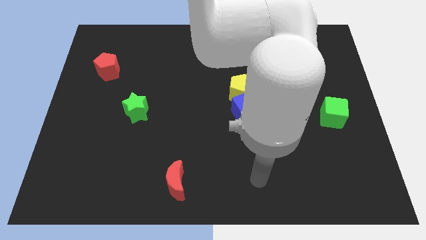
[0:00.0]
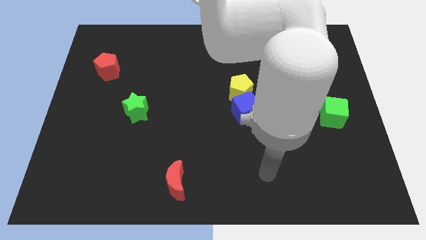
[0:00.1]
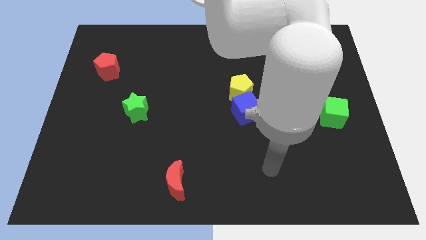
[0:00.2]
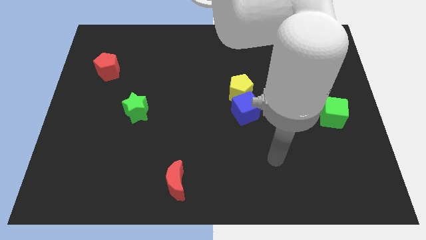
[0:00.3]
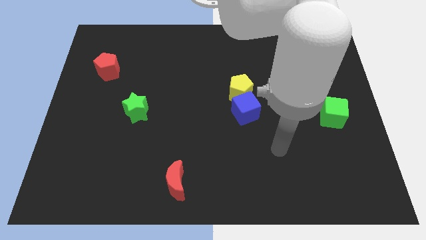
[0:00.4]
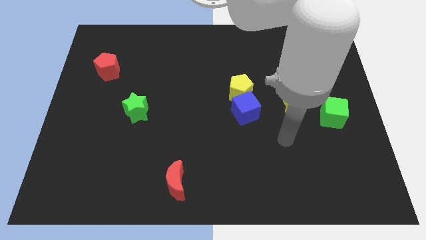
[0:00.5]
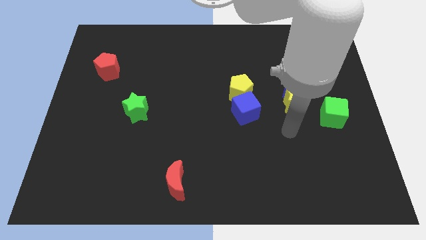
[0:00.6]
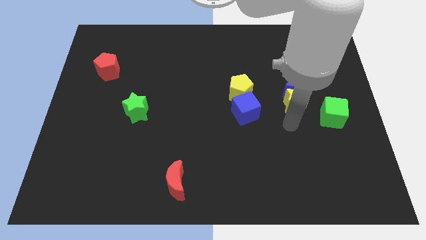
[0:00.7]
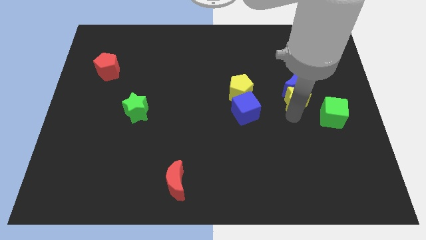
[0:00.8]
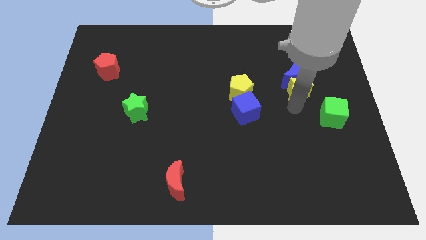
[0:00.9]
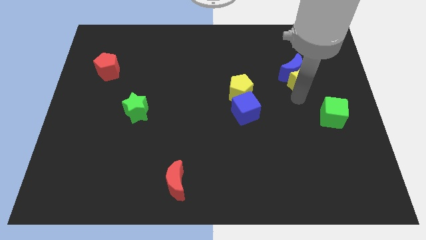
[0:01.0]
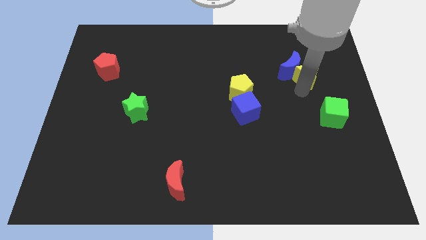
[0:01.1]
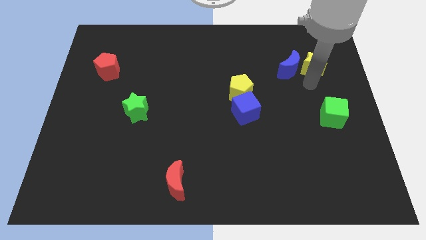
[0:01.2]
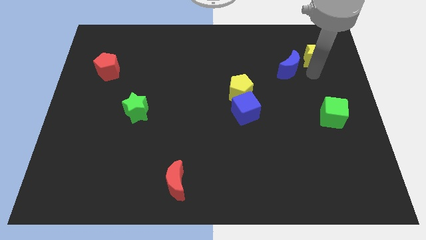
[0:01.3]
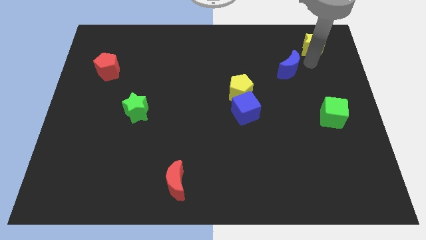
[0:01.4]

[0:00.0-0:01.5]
move the blue moon away from the yellow star

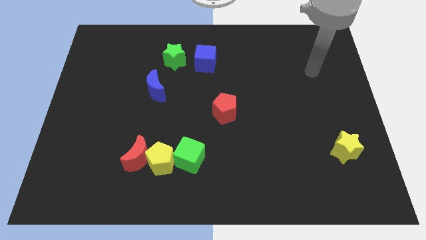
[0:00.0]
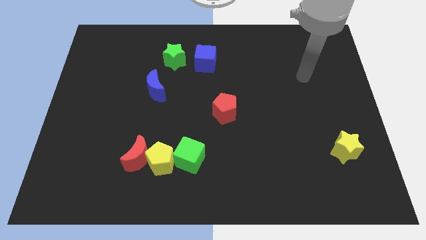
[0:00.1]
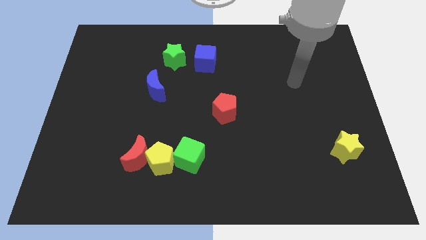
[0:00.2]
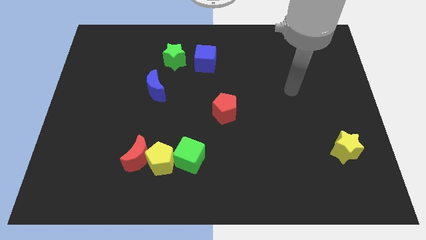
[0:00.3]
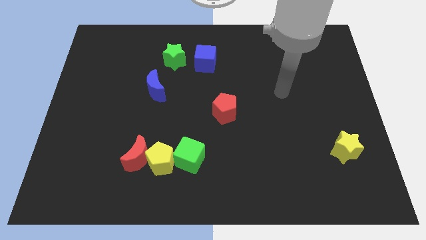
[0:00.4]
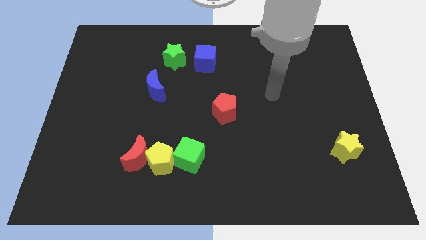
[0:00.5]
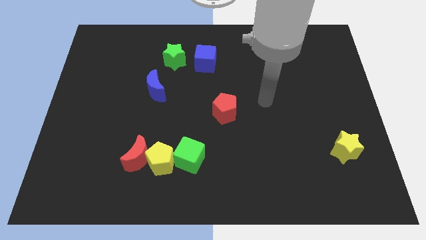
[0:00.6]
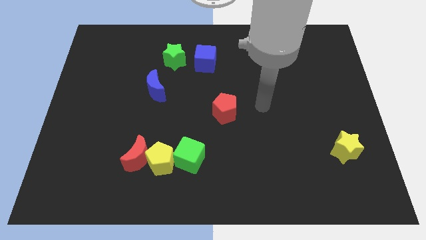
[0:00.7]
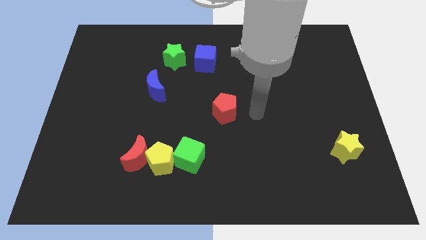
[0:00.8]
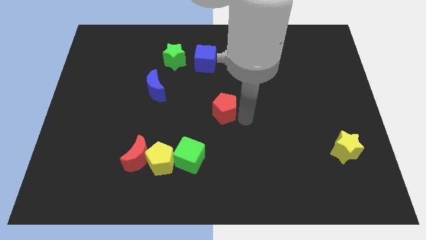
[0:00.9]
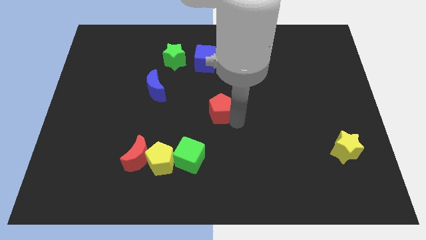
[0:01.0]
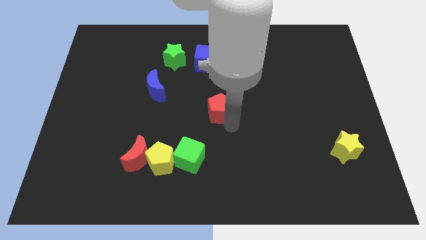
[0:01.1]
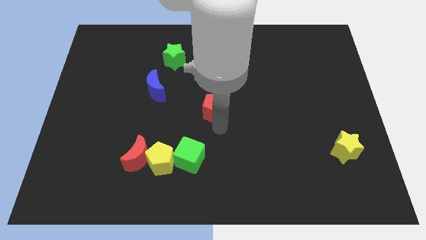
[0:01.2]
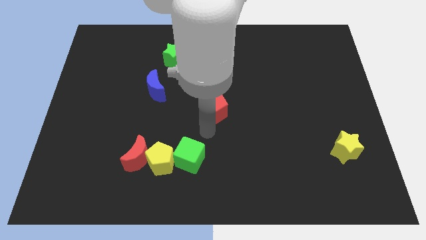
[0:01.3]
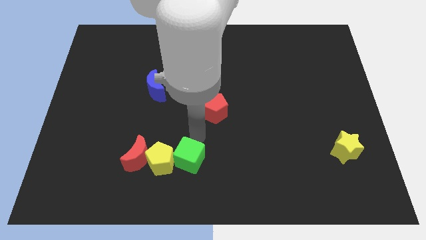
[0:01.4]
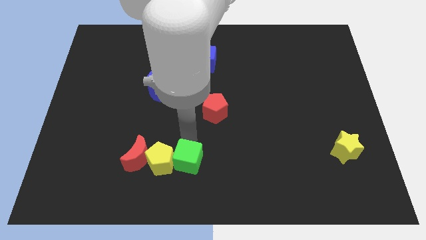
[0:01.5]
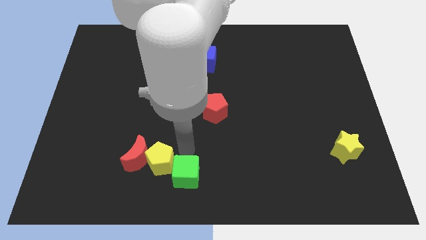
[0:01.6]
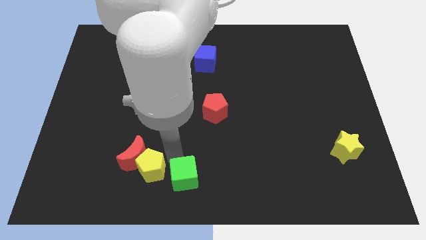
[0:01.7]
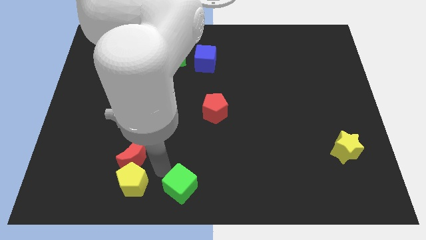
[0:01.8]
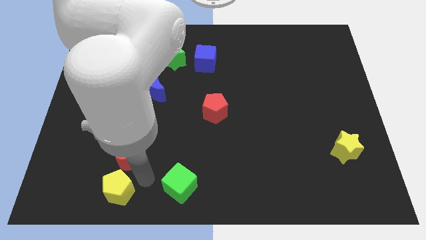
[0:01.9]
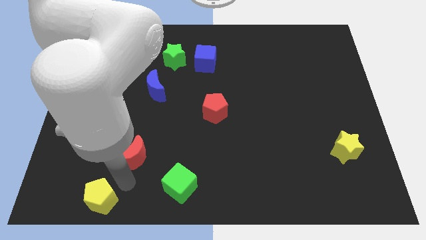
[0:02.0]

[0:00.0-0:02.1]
pull the red moon apart from the yellow pentagon

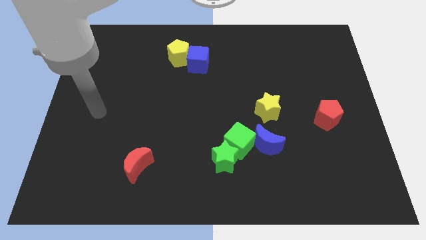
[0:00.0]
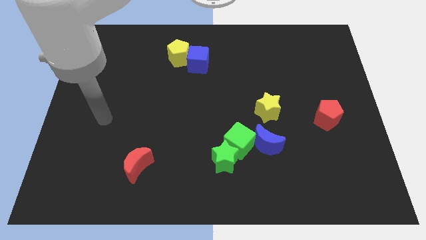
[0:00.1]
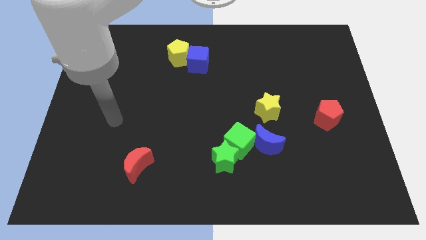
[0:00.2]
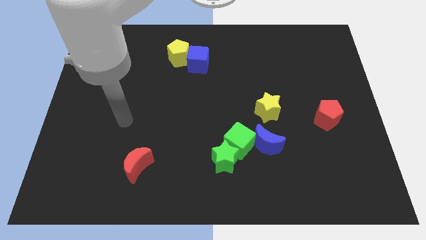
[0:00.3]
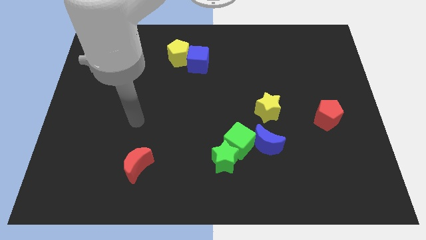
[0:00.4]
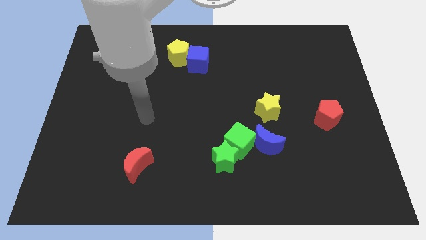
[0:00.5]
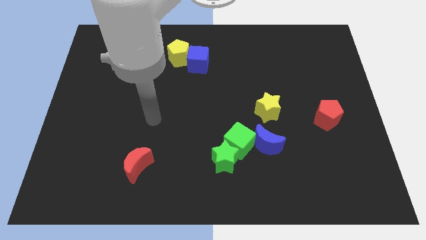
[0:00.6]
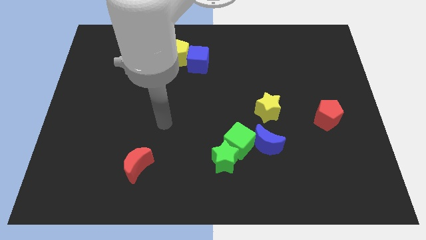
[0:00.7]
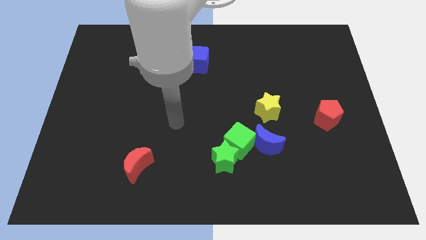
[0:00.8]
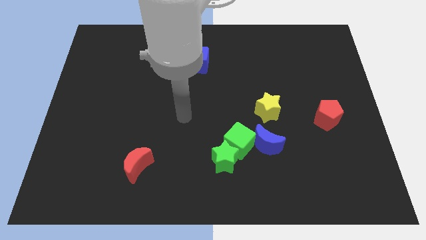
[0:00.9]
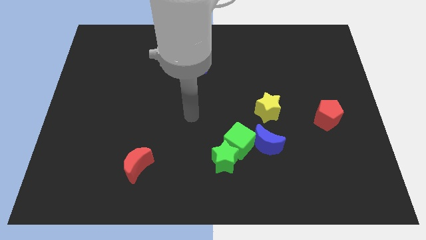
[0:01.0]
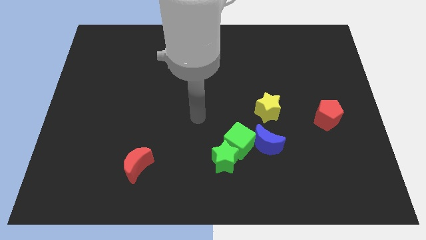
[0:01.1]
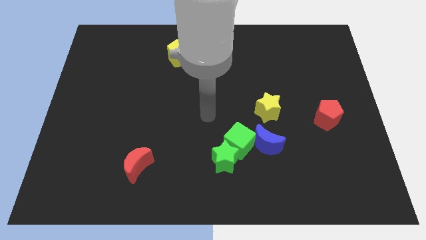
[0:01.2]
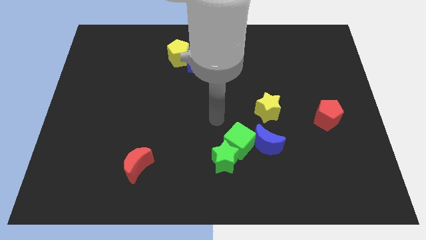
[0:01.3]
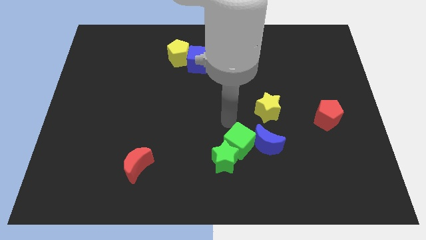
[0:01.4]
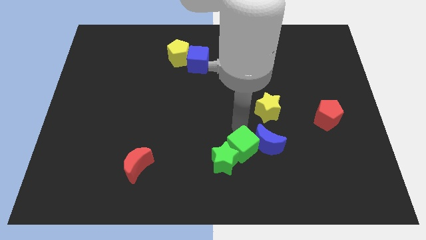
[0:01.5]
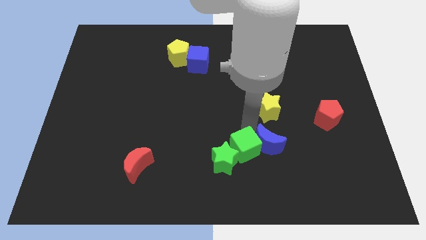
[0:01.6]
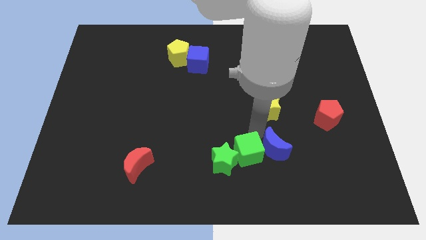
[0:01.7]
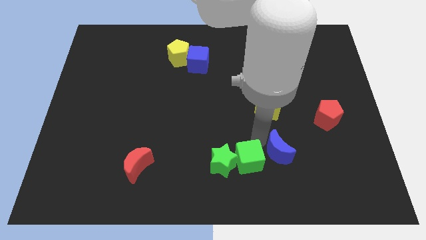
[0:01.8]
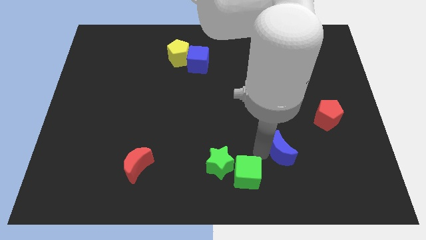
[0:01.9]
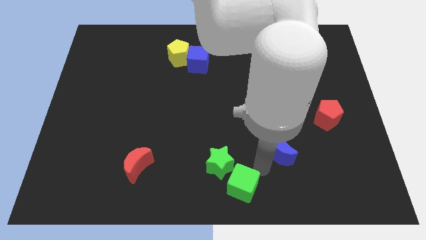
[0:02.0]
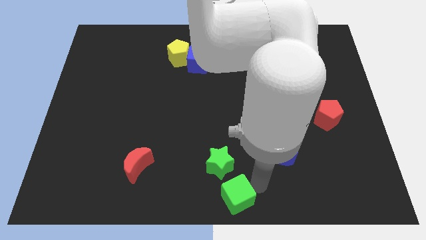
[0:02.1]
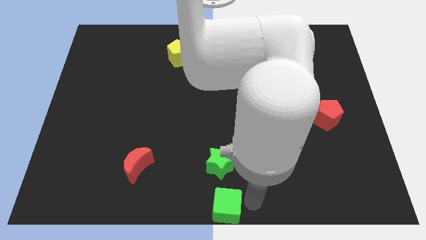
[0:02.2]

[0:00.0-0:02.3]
separate the green cube from the green star and blue moon

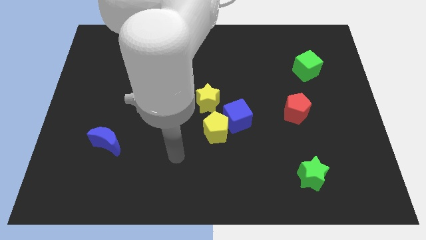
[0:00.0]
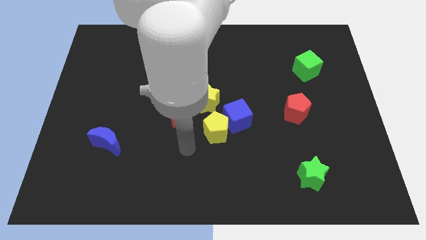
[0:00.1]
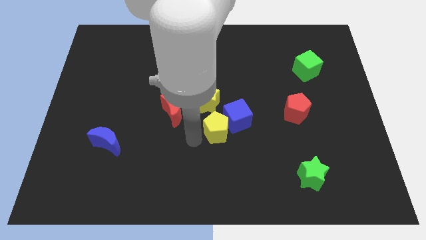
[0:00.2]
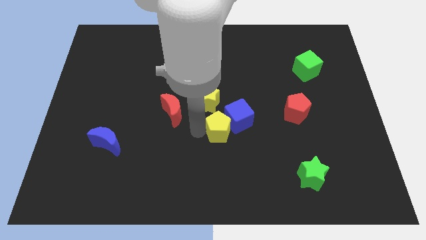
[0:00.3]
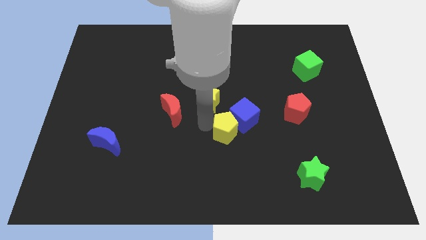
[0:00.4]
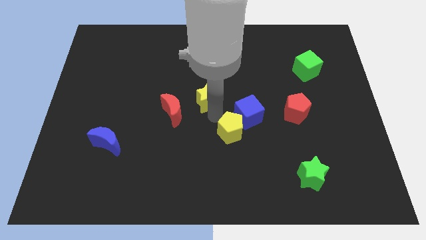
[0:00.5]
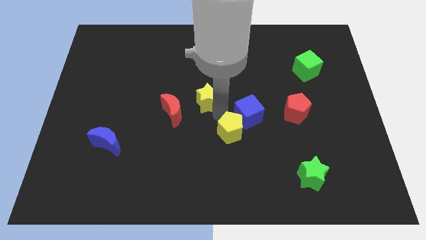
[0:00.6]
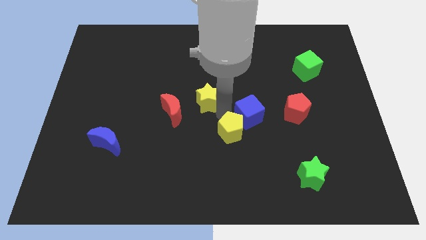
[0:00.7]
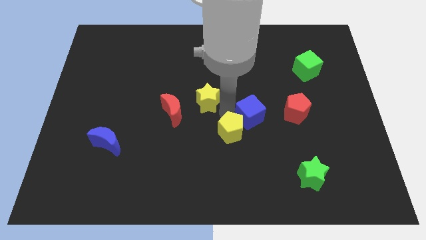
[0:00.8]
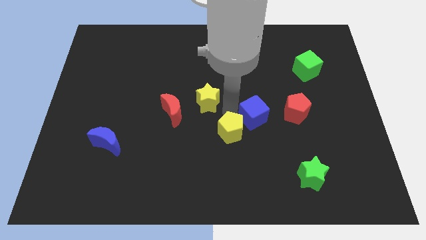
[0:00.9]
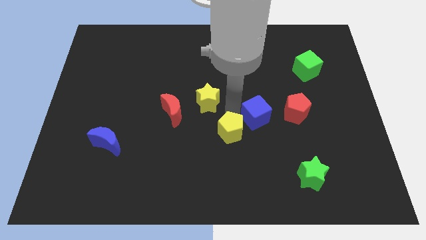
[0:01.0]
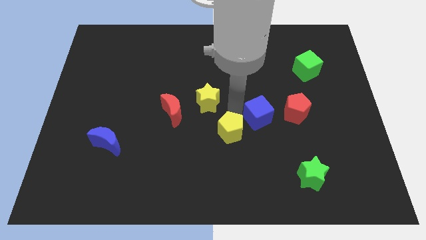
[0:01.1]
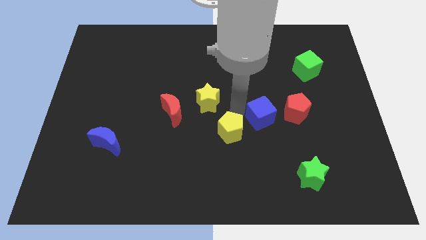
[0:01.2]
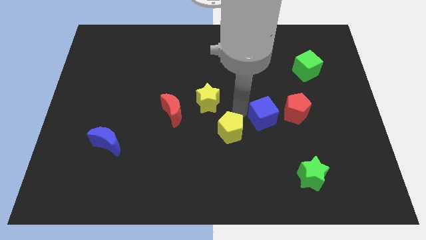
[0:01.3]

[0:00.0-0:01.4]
pull the blue cube apart from the yellow pentagon and yellow star

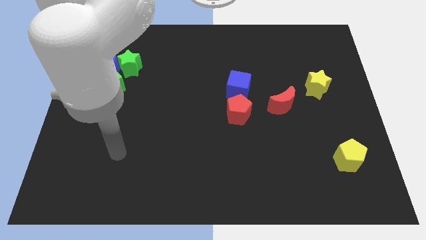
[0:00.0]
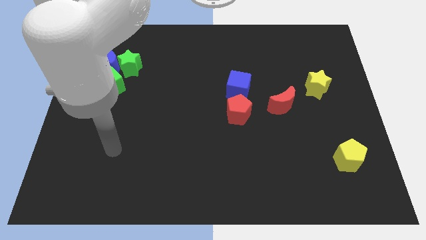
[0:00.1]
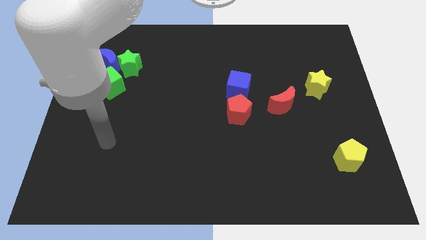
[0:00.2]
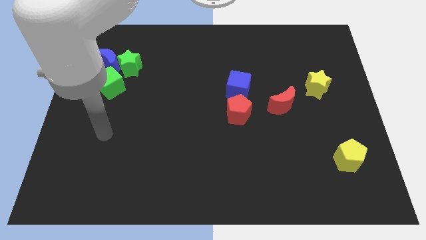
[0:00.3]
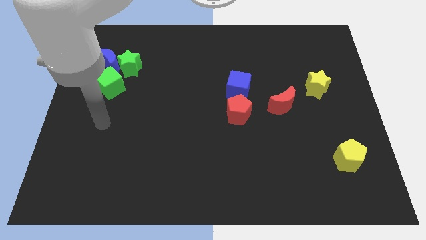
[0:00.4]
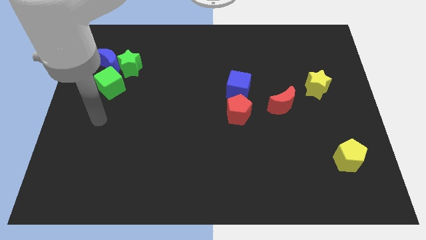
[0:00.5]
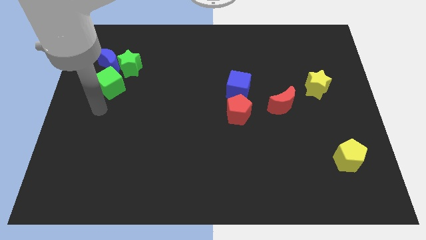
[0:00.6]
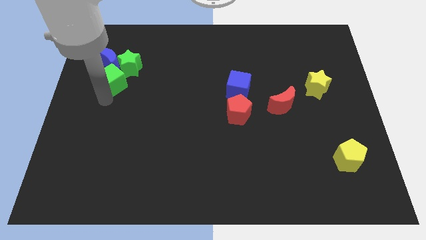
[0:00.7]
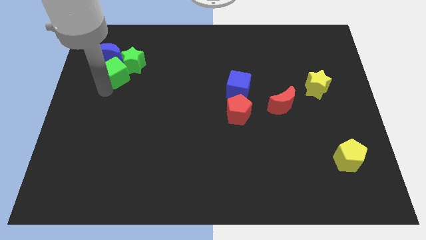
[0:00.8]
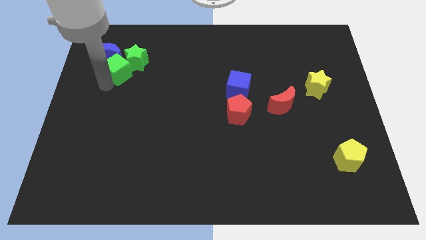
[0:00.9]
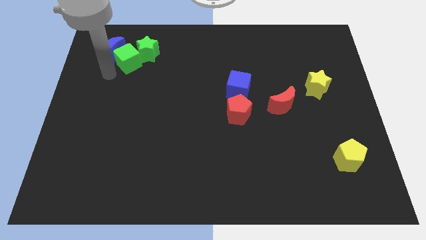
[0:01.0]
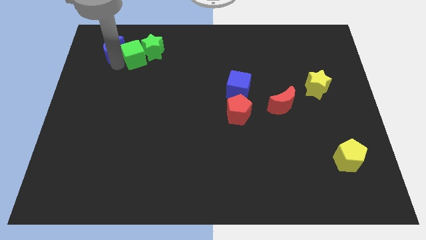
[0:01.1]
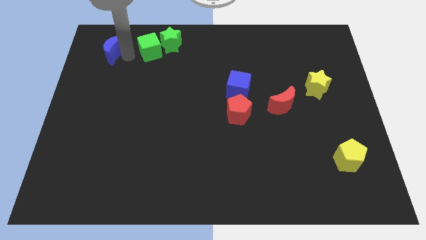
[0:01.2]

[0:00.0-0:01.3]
move the green star away from the blue moon and green cube

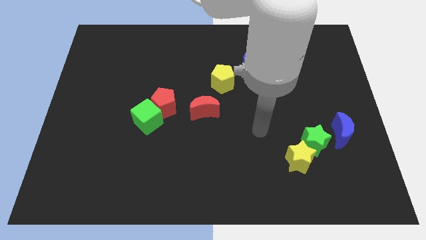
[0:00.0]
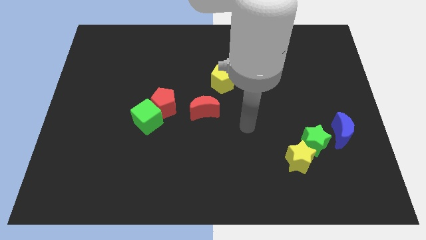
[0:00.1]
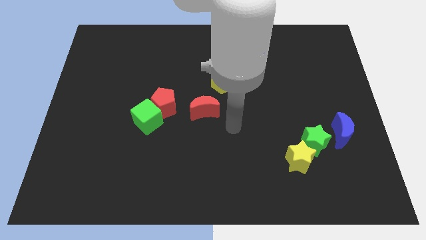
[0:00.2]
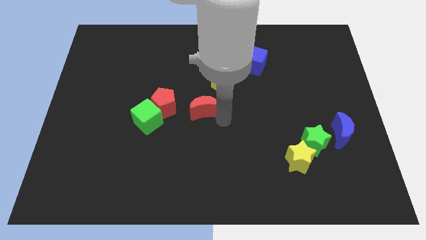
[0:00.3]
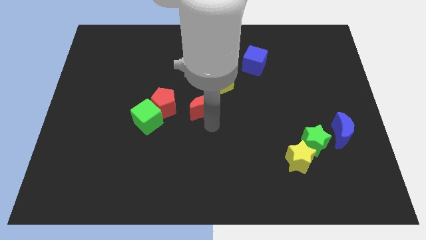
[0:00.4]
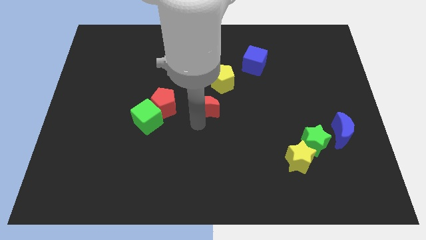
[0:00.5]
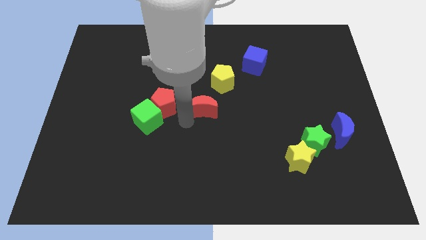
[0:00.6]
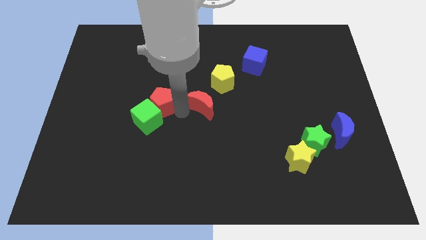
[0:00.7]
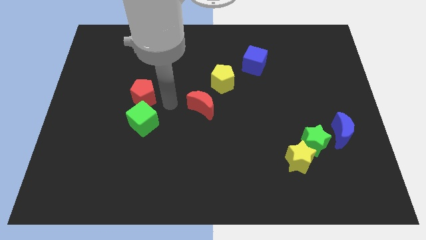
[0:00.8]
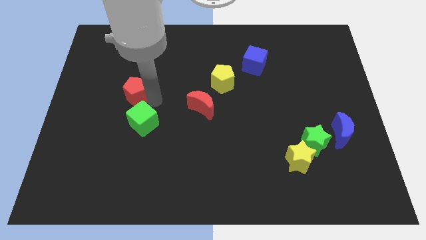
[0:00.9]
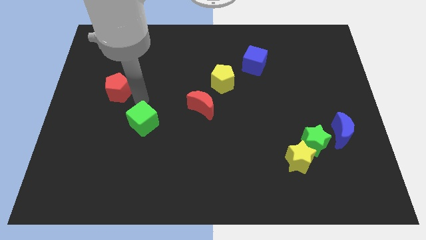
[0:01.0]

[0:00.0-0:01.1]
move the green cube away from the red pentagon
